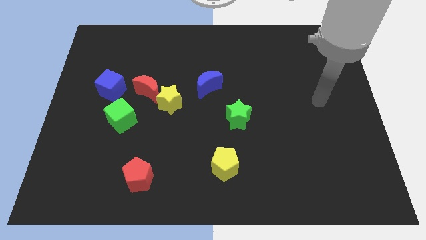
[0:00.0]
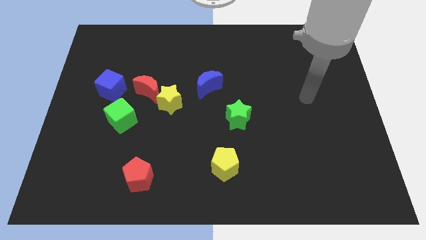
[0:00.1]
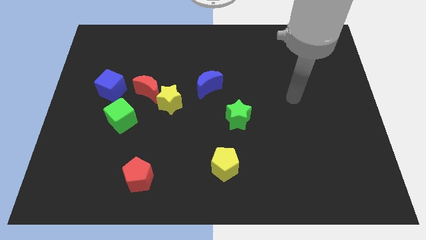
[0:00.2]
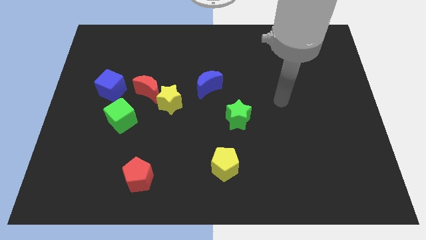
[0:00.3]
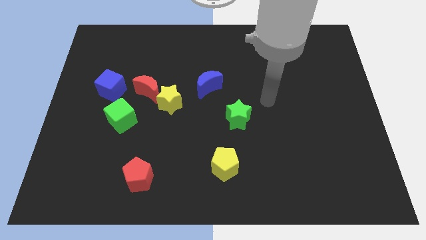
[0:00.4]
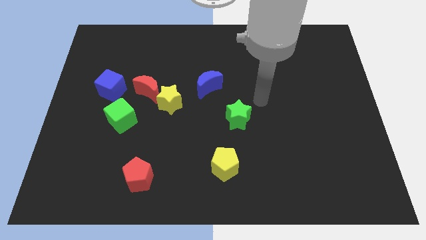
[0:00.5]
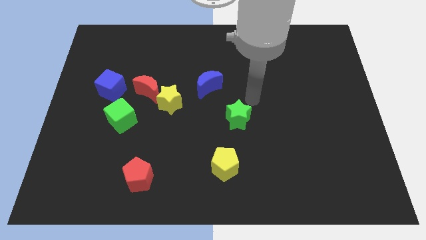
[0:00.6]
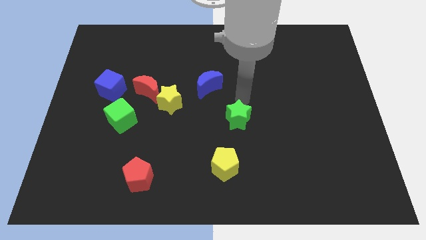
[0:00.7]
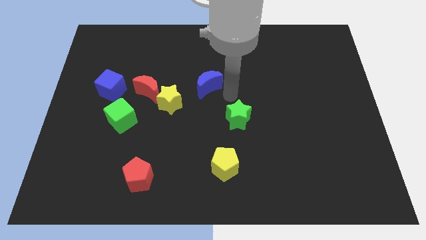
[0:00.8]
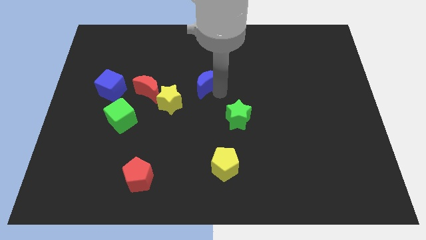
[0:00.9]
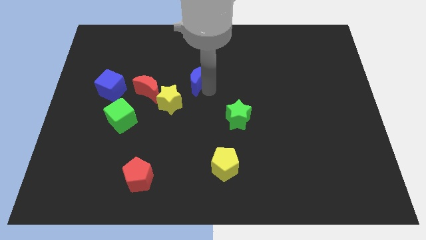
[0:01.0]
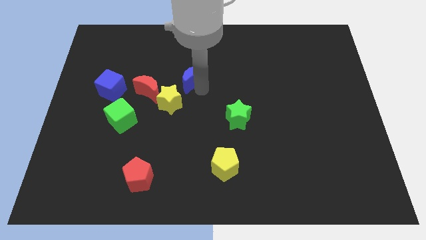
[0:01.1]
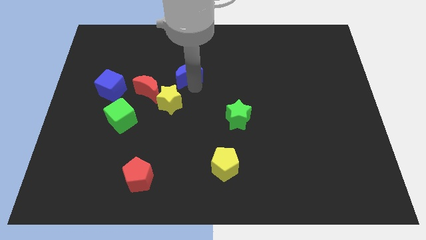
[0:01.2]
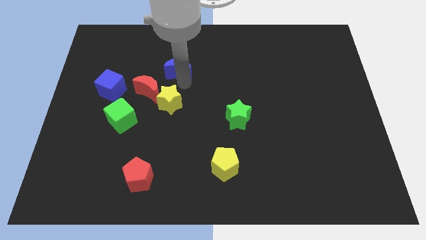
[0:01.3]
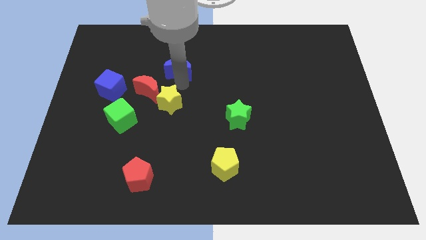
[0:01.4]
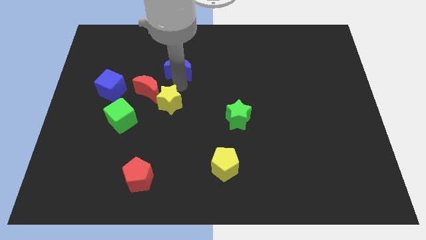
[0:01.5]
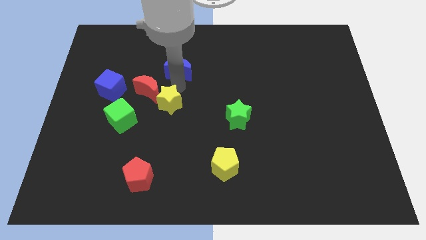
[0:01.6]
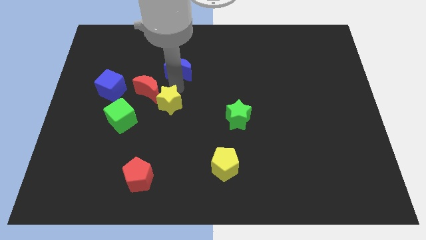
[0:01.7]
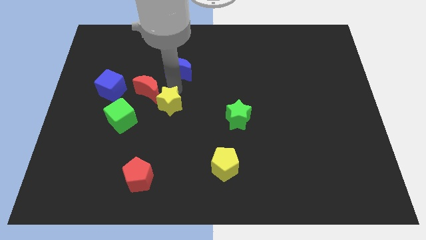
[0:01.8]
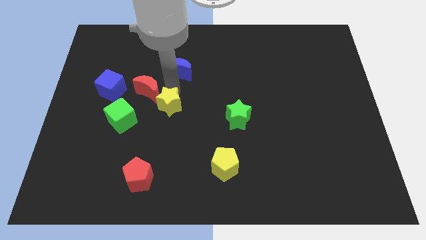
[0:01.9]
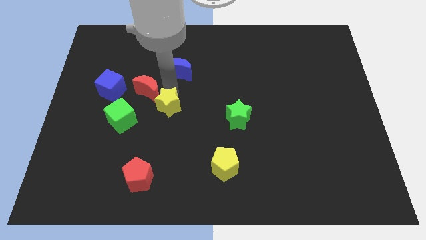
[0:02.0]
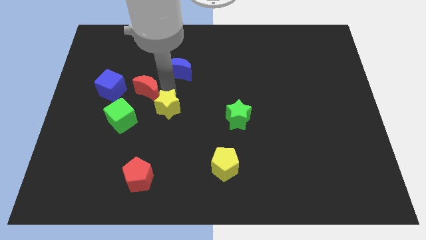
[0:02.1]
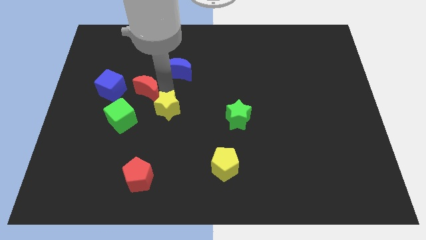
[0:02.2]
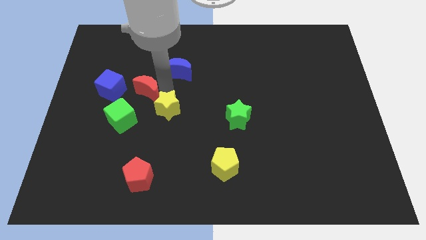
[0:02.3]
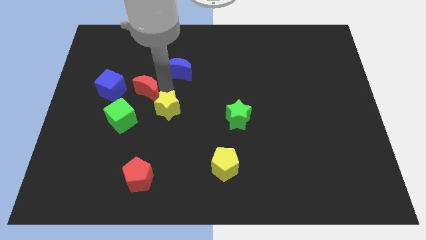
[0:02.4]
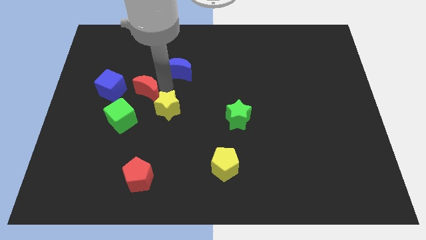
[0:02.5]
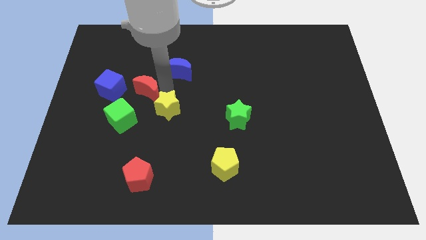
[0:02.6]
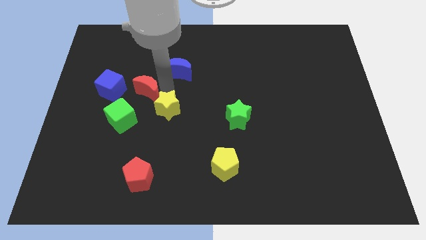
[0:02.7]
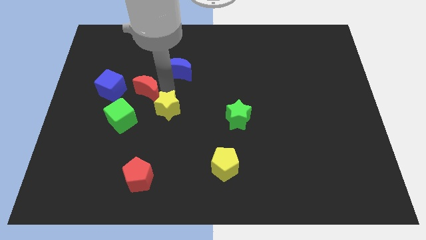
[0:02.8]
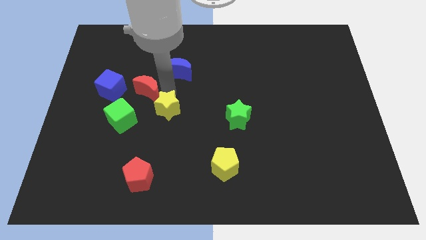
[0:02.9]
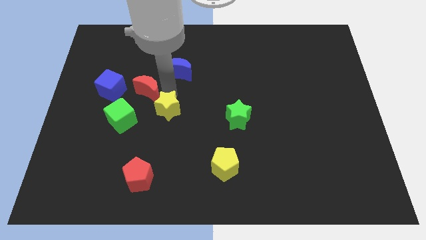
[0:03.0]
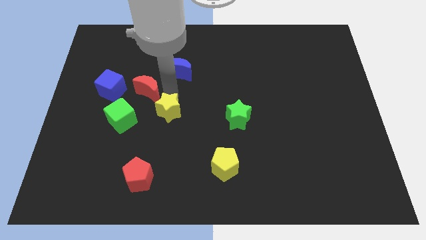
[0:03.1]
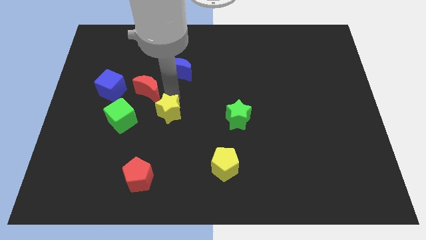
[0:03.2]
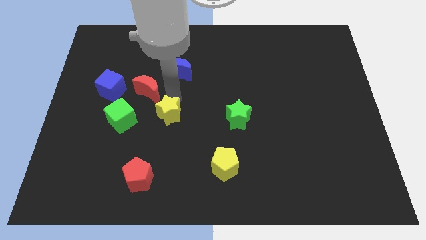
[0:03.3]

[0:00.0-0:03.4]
pull the yellow star apart from the red moon and blue moon

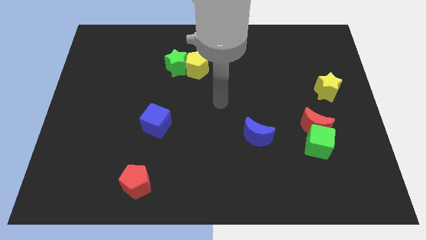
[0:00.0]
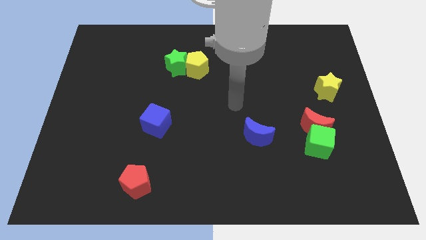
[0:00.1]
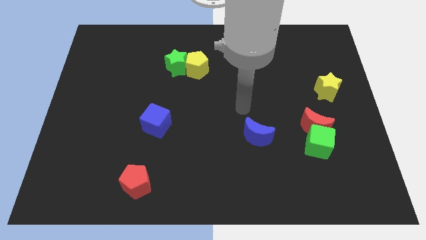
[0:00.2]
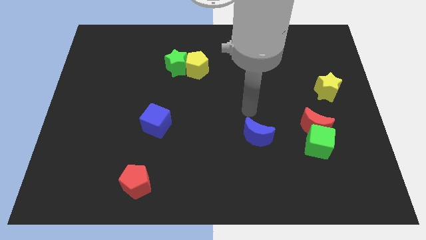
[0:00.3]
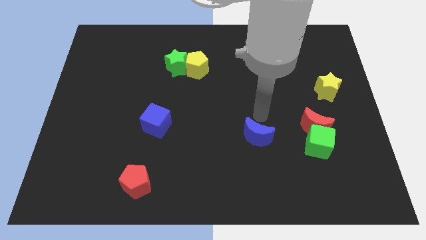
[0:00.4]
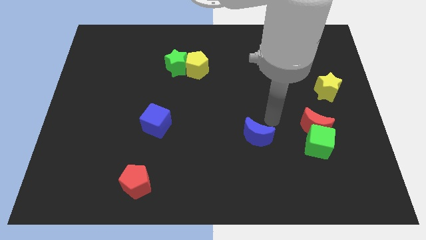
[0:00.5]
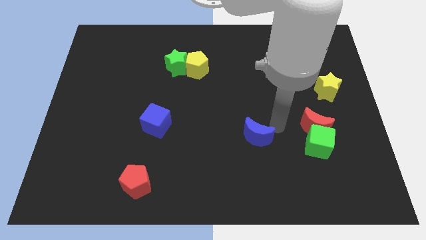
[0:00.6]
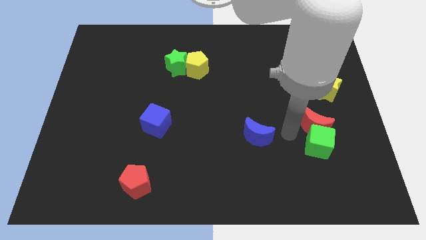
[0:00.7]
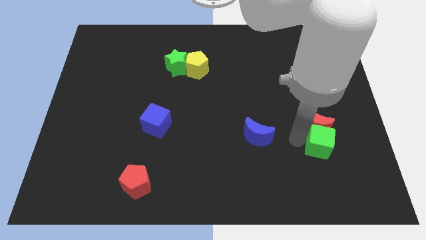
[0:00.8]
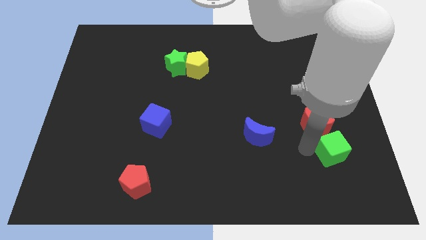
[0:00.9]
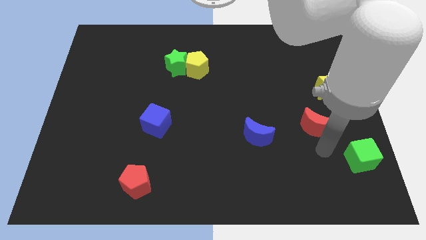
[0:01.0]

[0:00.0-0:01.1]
pull the red moon apart from the green cube

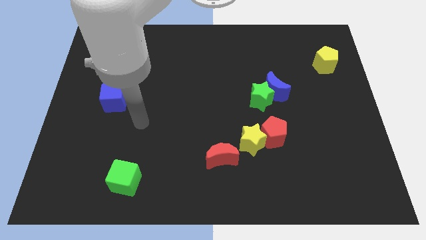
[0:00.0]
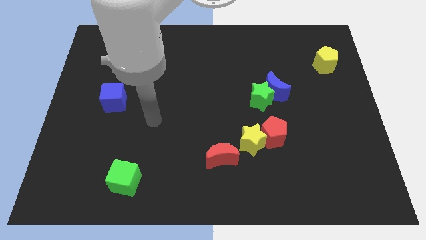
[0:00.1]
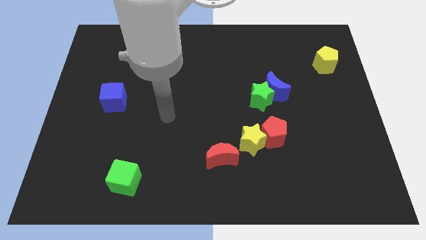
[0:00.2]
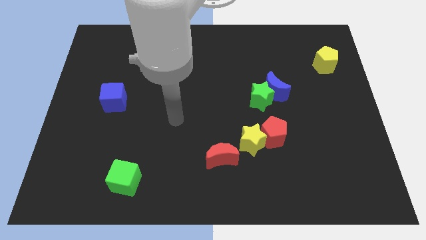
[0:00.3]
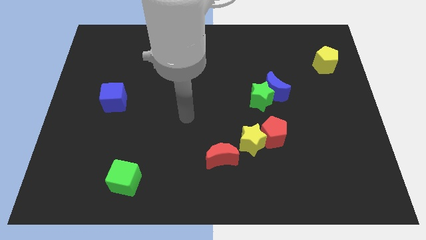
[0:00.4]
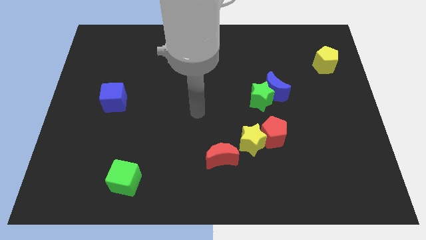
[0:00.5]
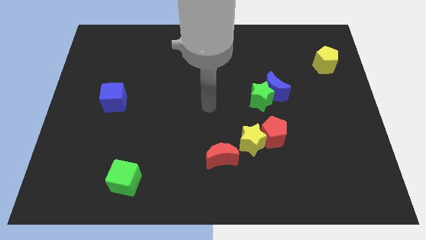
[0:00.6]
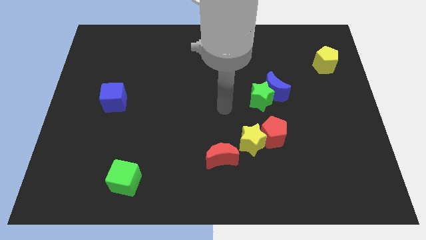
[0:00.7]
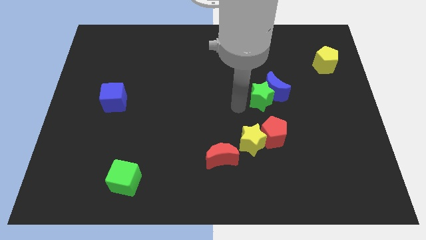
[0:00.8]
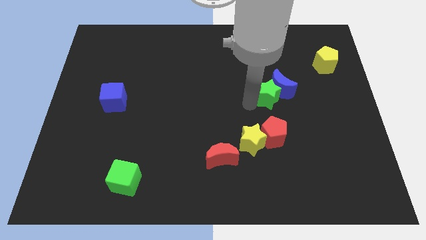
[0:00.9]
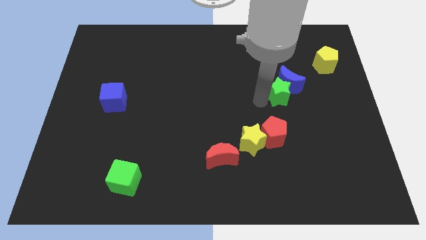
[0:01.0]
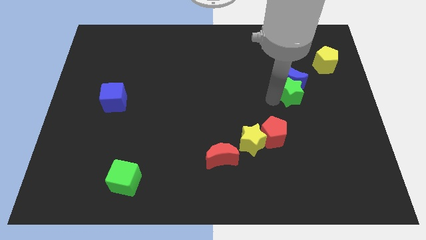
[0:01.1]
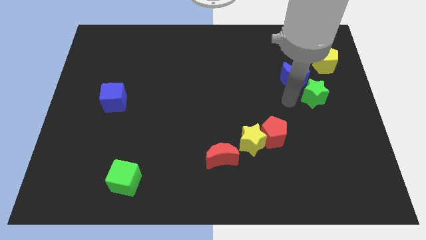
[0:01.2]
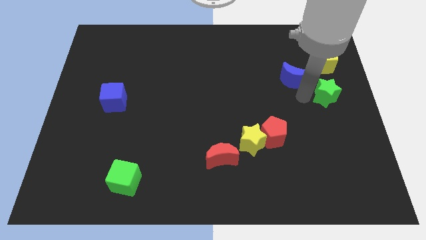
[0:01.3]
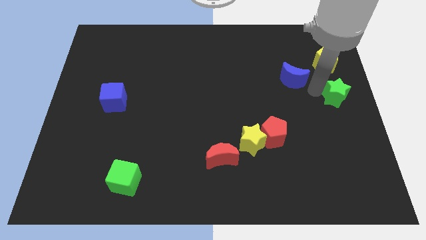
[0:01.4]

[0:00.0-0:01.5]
pull the blue moon apart from the green star

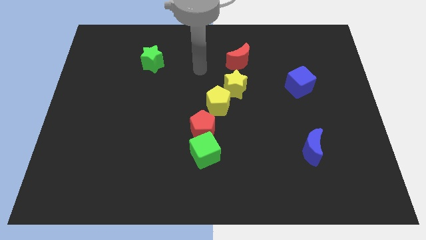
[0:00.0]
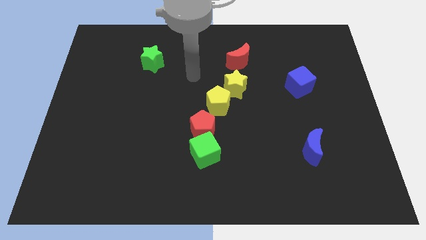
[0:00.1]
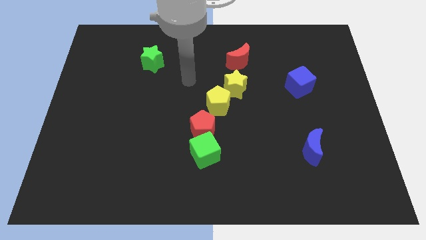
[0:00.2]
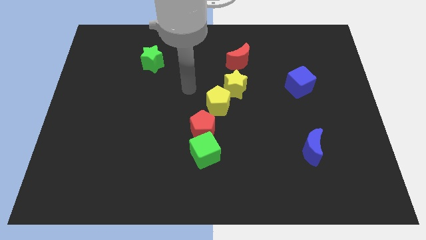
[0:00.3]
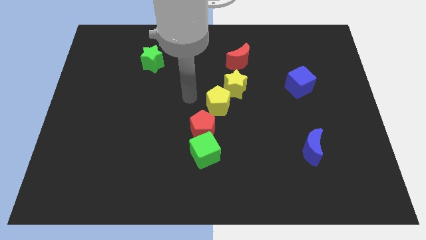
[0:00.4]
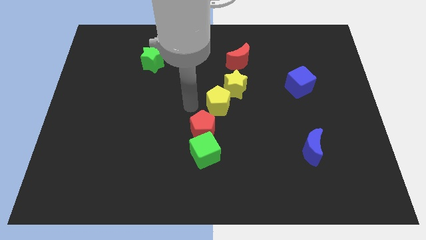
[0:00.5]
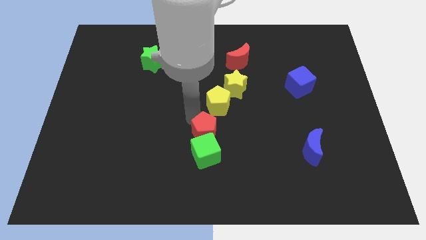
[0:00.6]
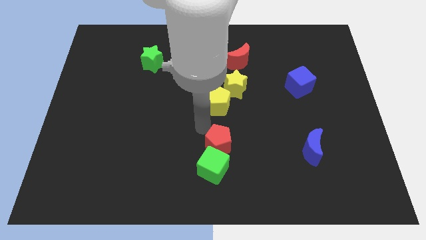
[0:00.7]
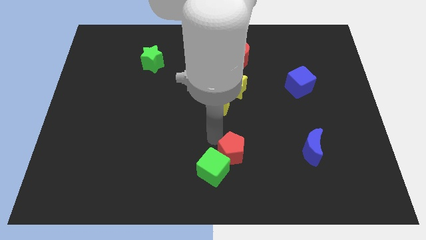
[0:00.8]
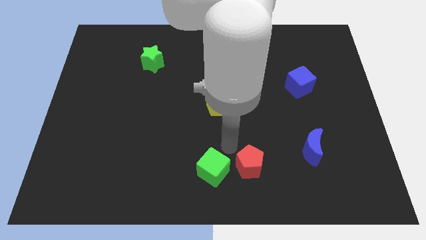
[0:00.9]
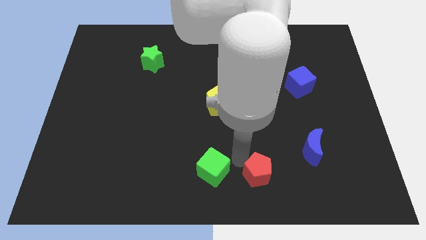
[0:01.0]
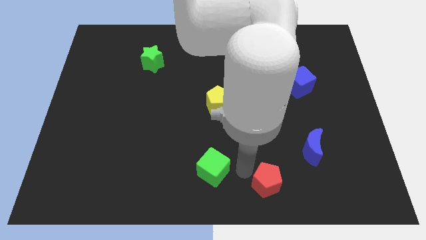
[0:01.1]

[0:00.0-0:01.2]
pull the green cube apart from the red pentagon

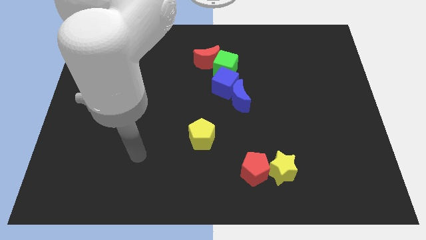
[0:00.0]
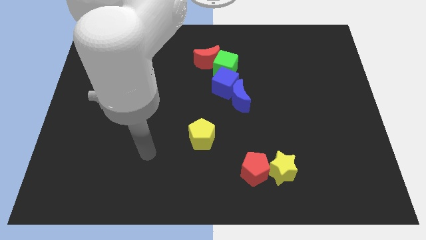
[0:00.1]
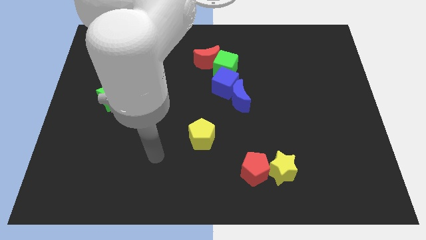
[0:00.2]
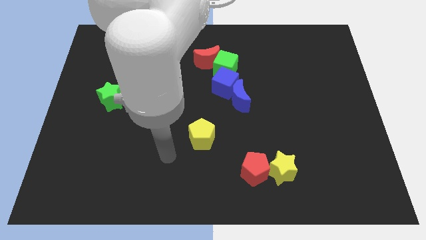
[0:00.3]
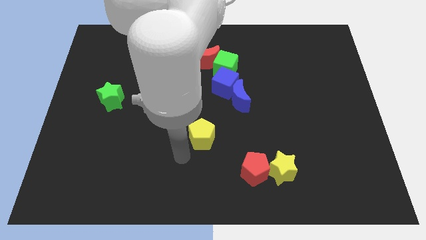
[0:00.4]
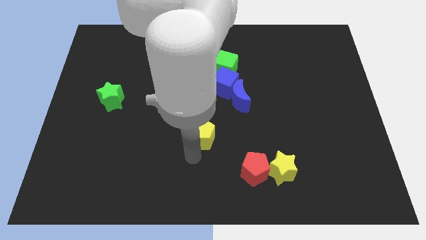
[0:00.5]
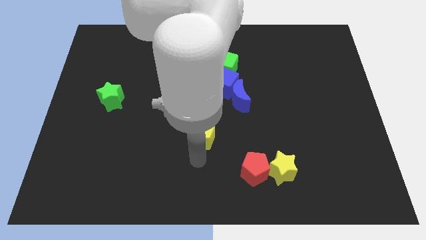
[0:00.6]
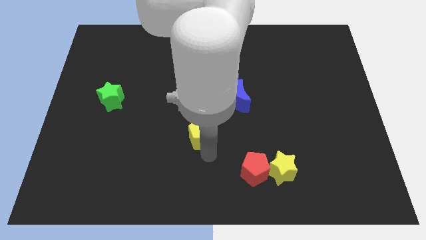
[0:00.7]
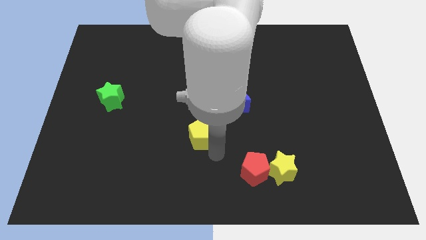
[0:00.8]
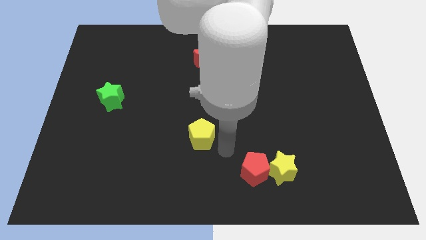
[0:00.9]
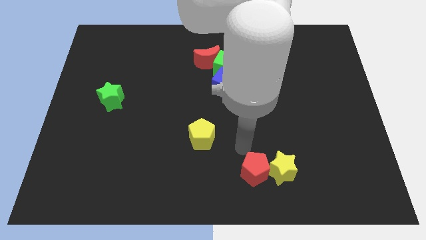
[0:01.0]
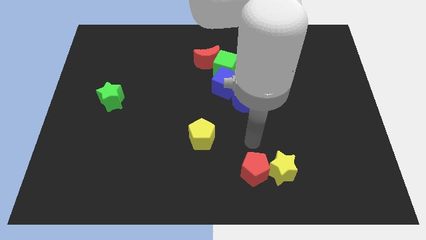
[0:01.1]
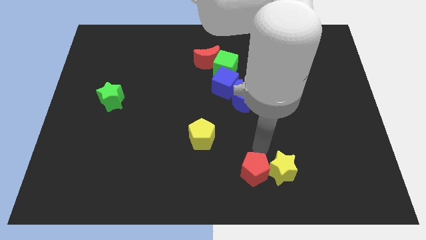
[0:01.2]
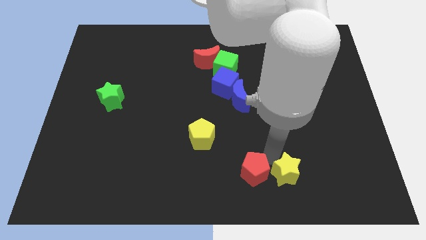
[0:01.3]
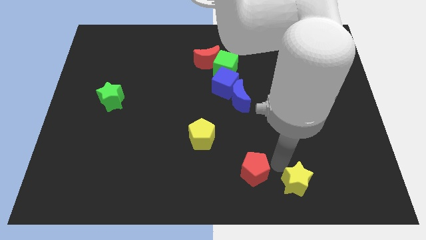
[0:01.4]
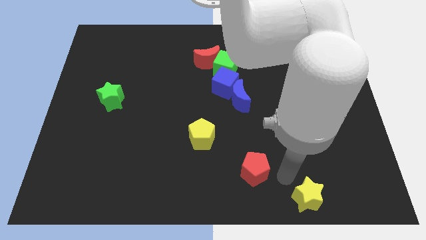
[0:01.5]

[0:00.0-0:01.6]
move the red pentagon away from the yellow star

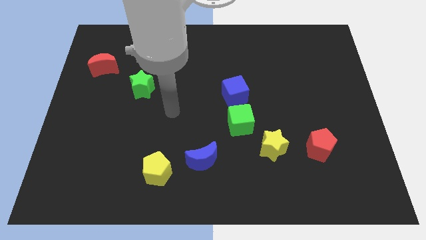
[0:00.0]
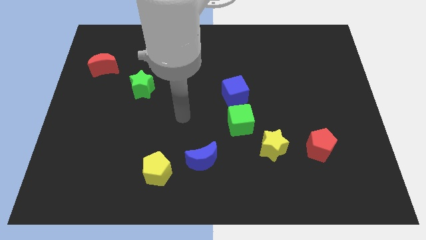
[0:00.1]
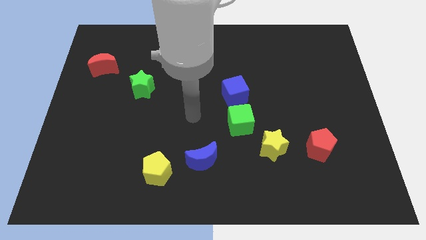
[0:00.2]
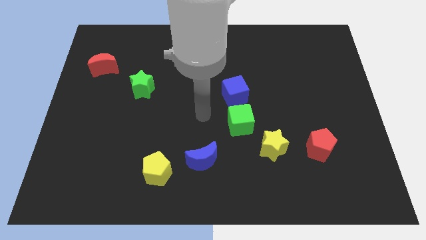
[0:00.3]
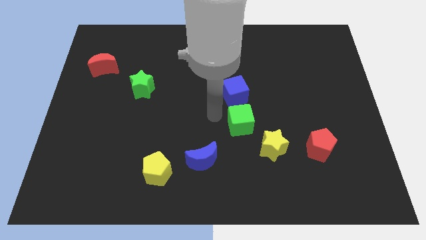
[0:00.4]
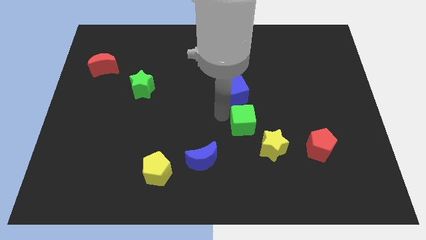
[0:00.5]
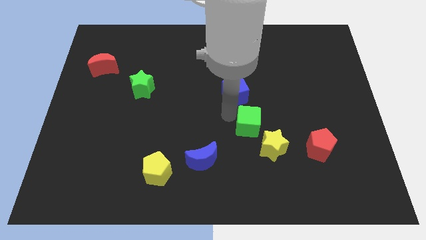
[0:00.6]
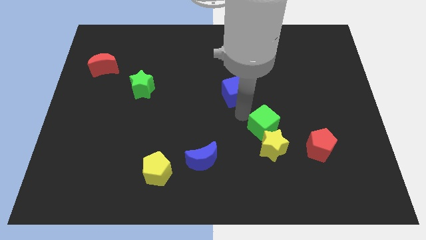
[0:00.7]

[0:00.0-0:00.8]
move the blue cube away from the green cube
